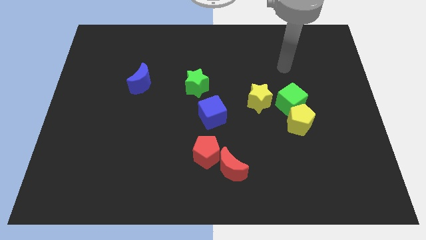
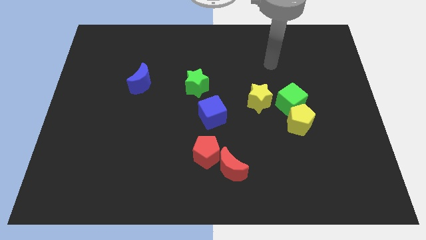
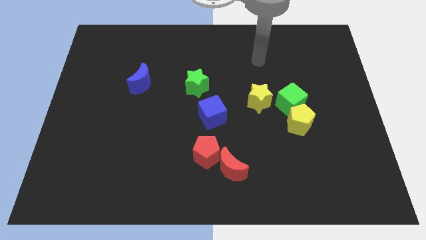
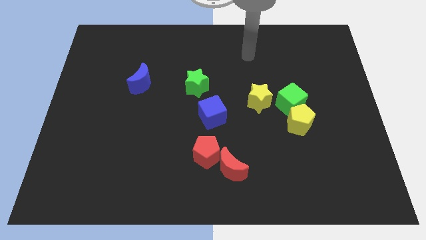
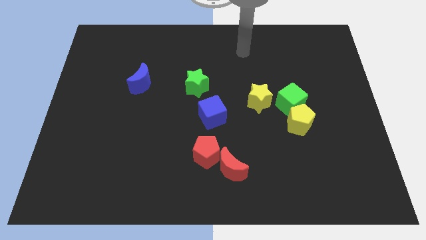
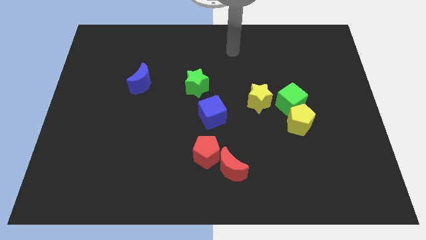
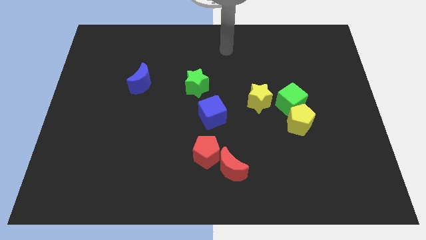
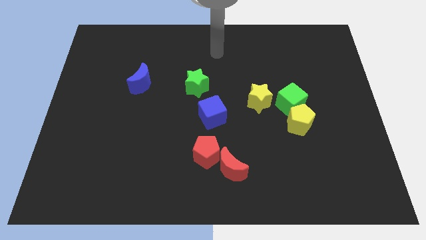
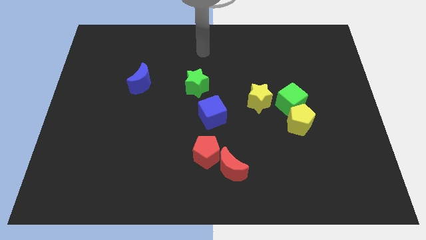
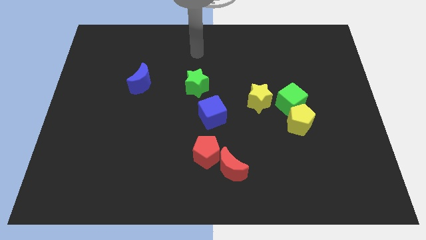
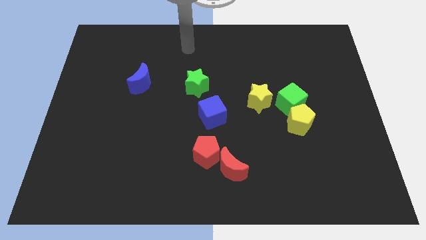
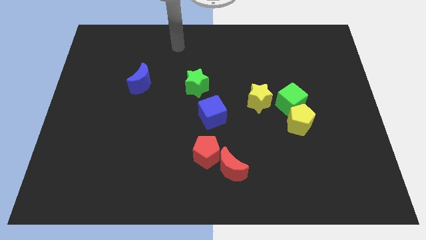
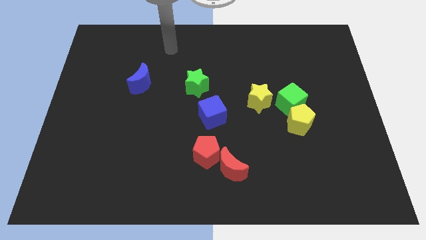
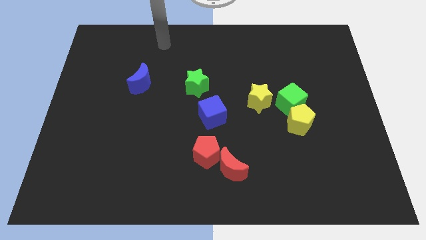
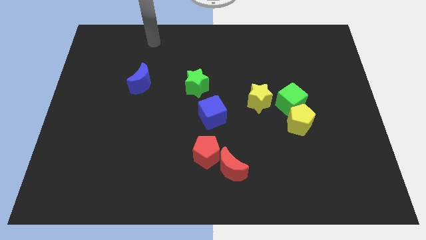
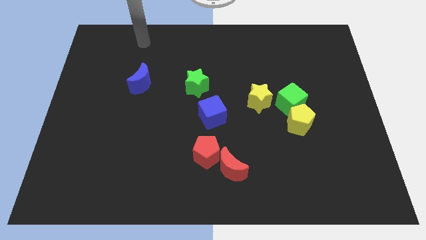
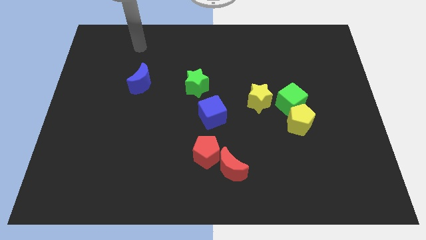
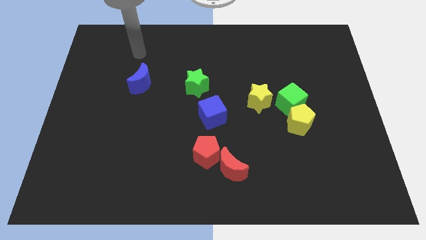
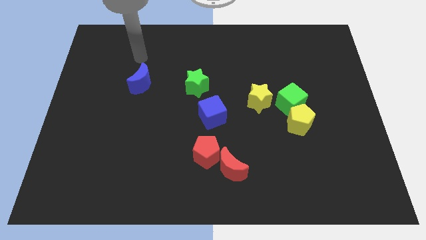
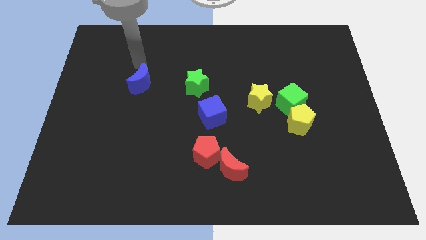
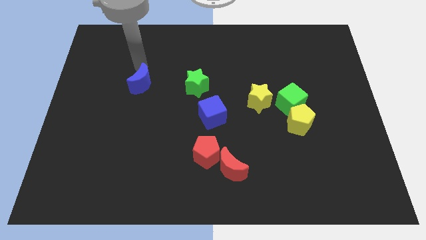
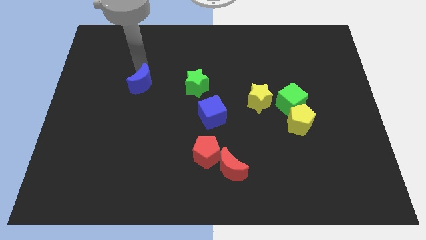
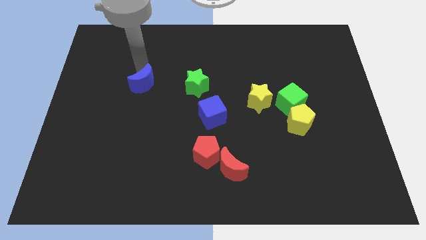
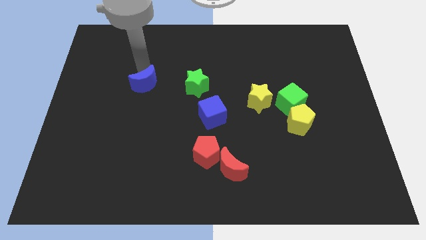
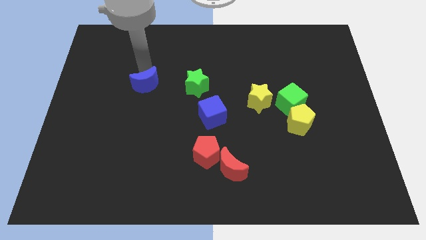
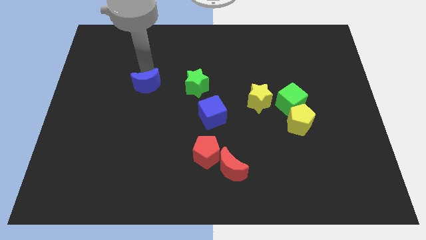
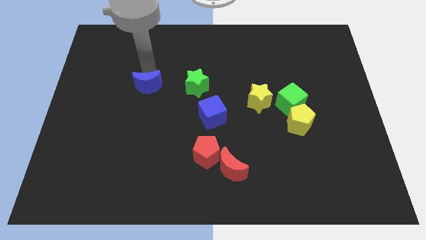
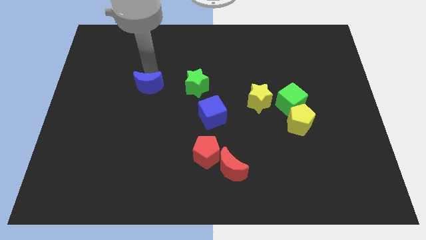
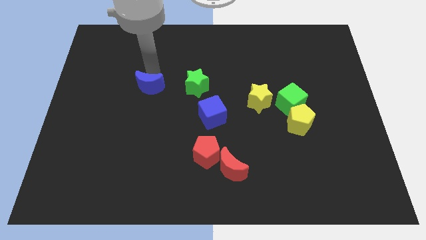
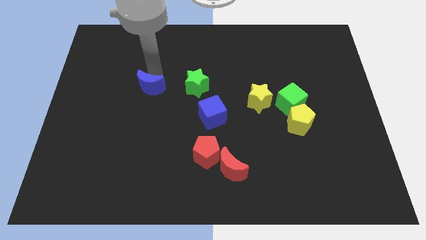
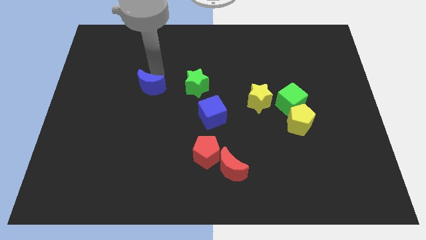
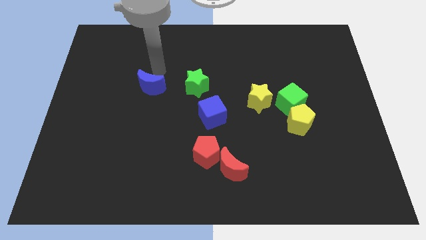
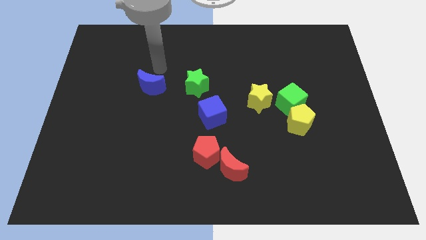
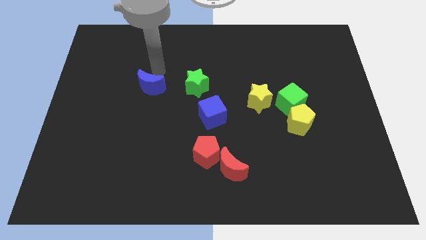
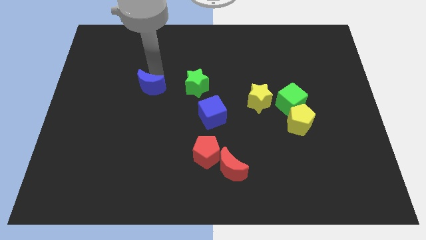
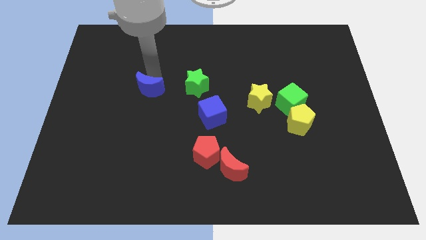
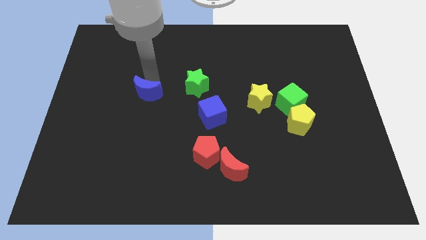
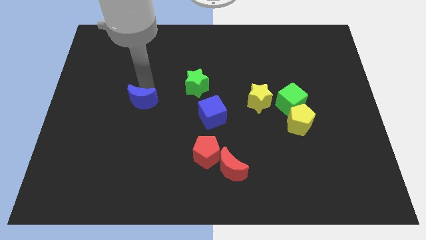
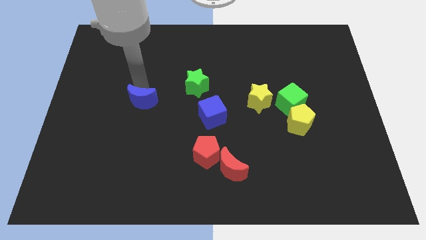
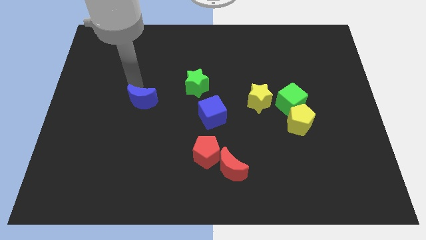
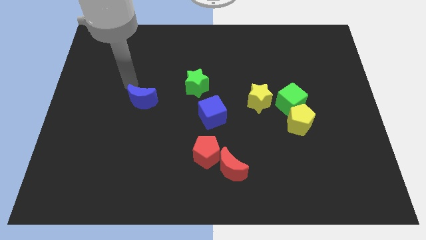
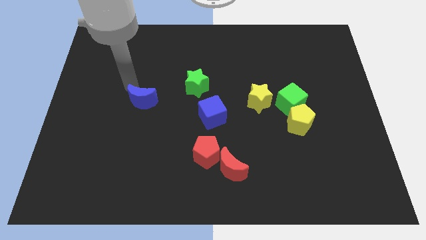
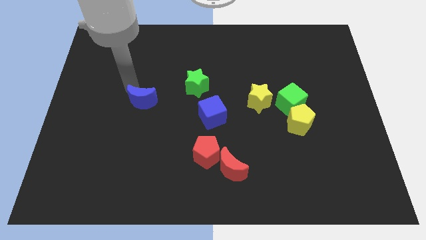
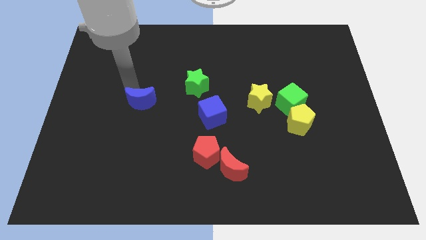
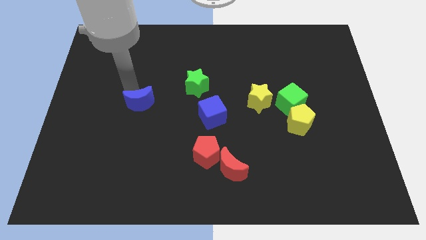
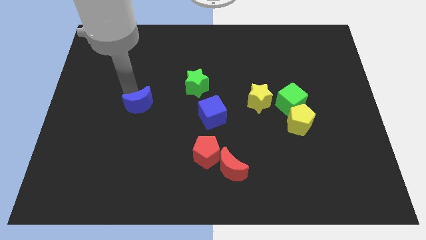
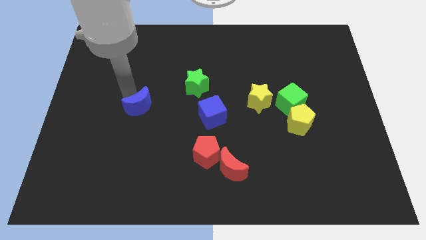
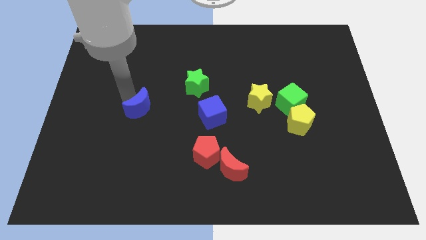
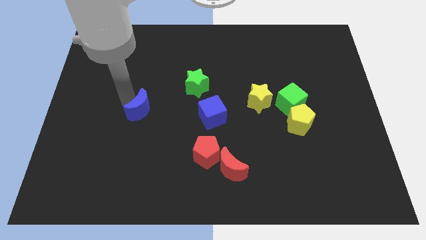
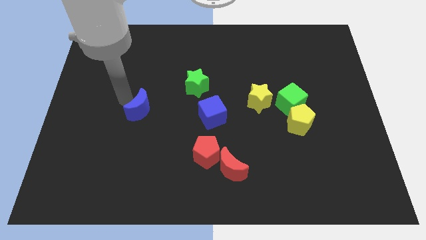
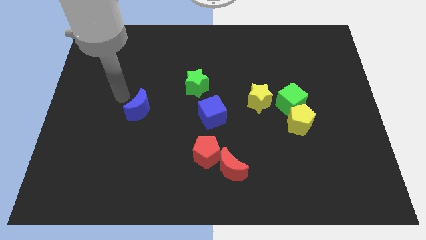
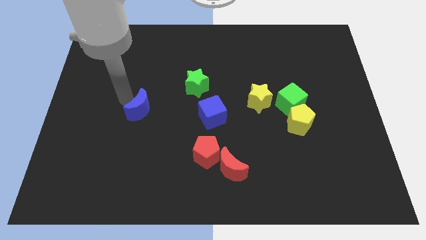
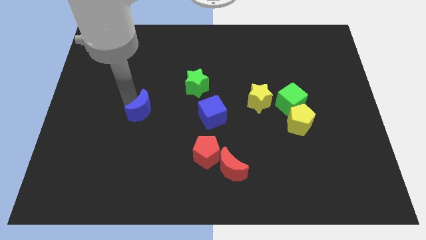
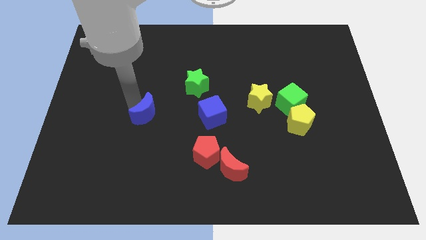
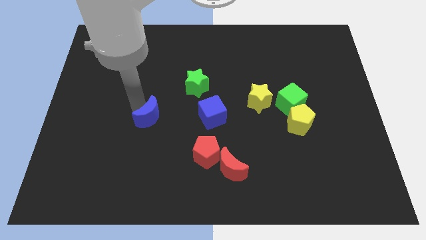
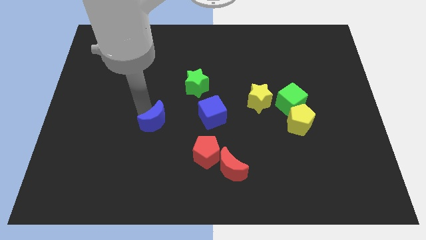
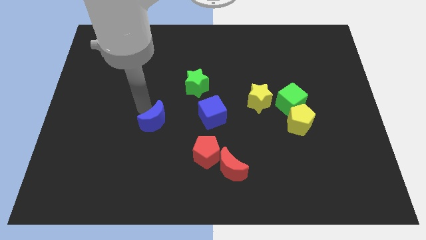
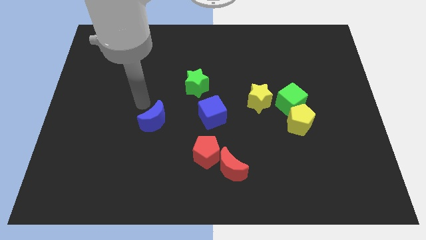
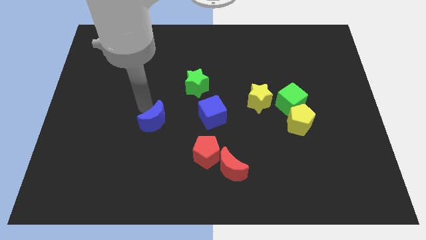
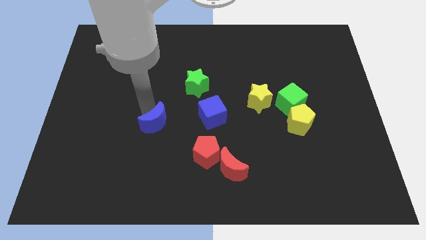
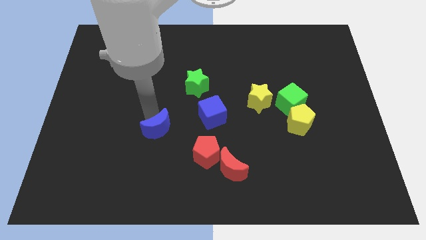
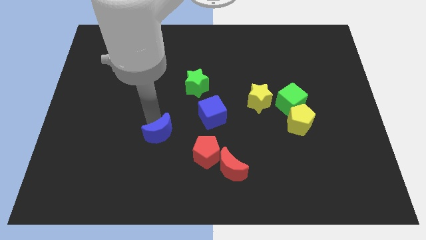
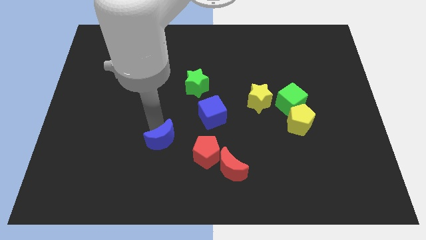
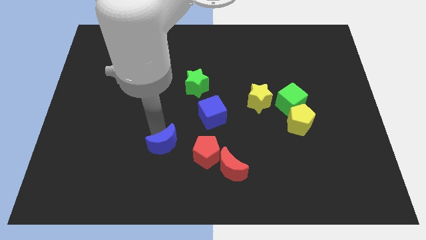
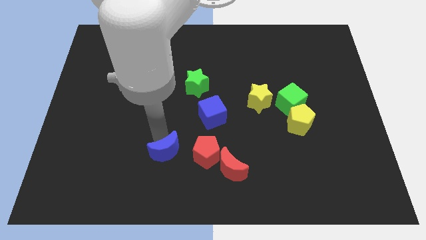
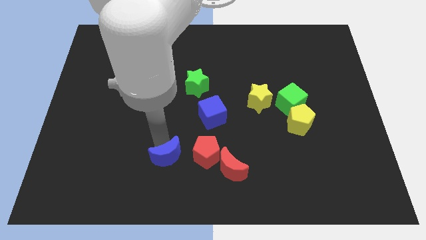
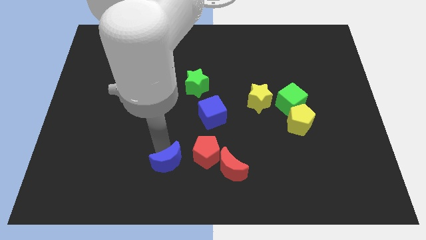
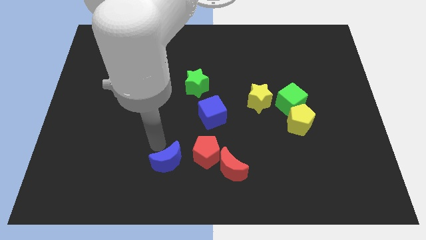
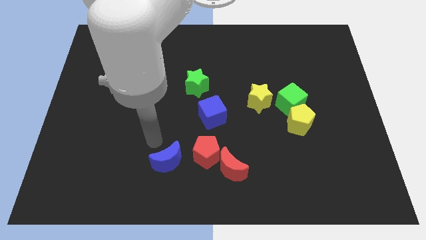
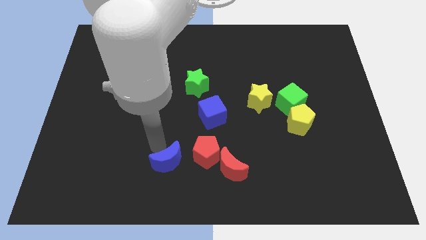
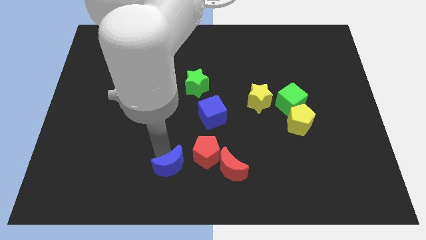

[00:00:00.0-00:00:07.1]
move the blue moon to the bottom
